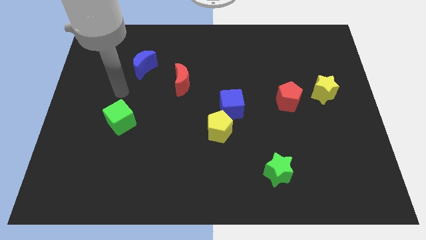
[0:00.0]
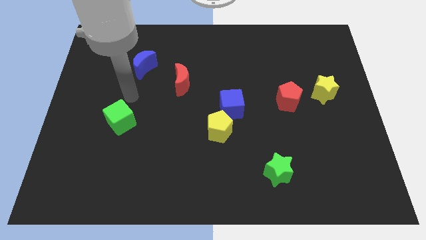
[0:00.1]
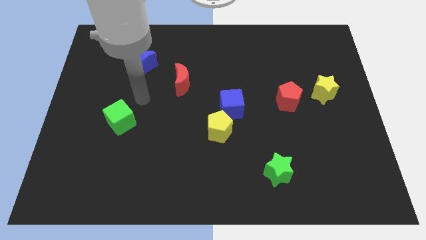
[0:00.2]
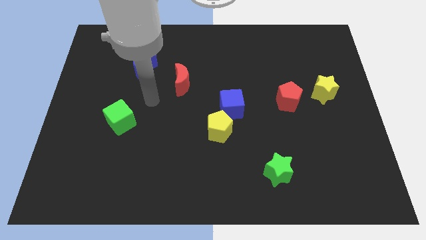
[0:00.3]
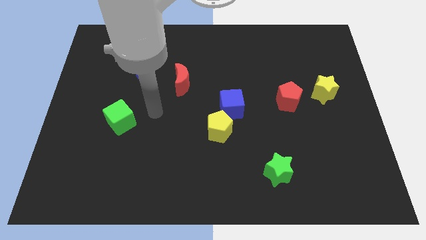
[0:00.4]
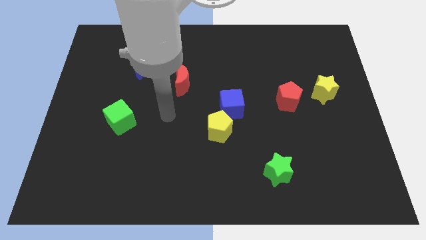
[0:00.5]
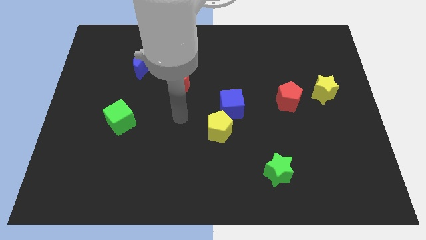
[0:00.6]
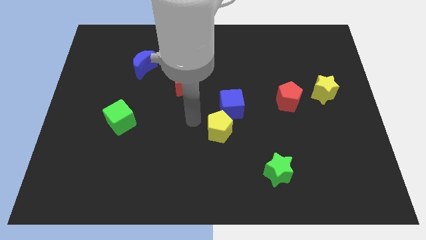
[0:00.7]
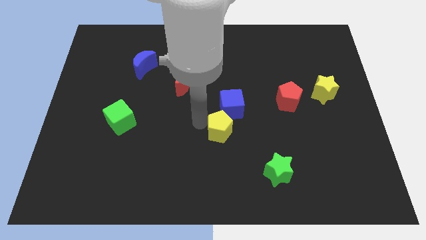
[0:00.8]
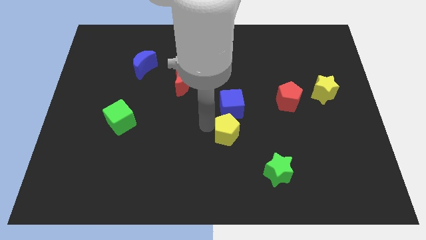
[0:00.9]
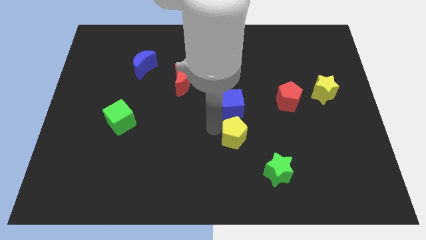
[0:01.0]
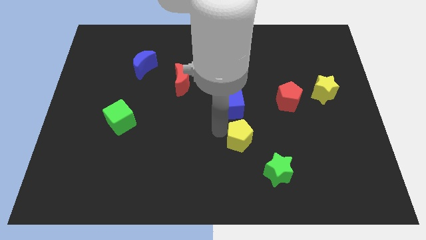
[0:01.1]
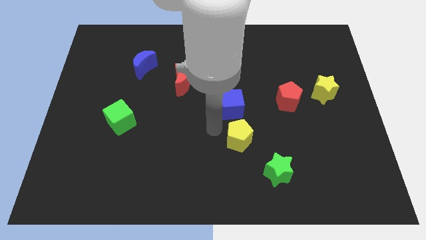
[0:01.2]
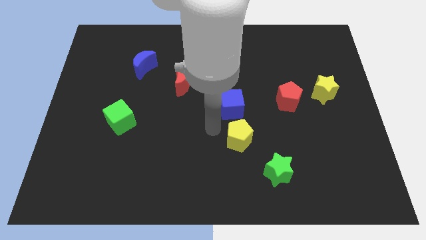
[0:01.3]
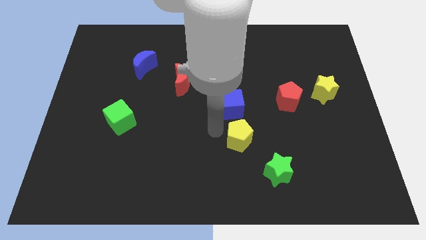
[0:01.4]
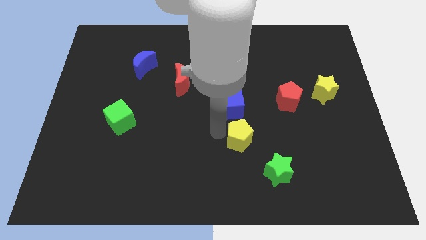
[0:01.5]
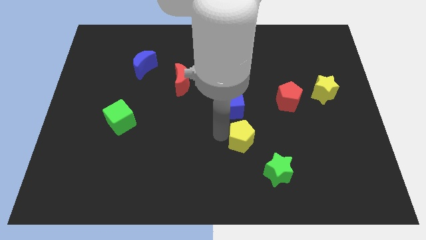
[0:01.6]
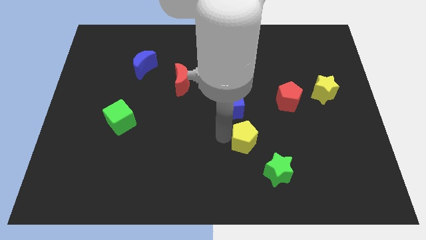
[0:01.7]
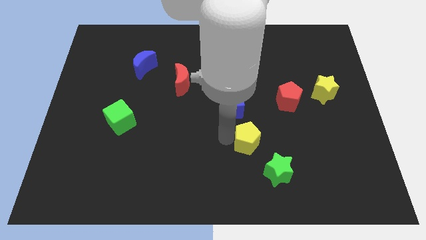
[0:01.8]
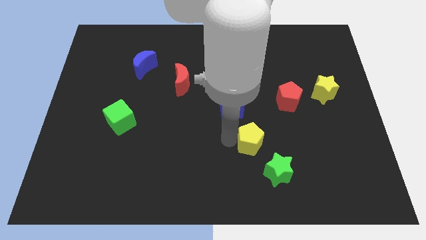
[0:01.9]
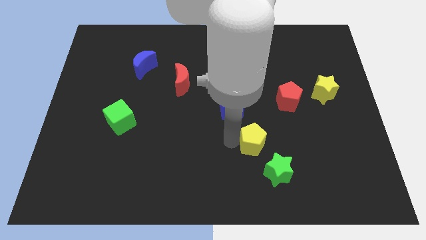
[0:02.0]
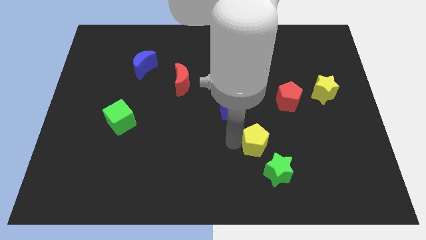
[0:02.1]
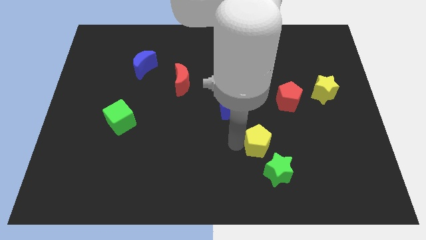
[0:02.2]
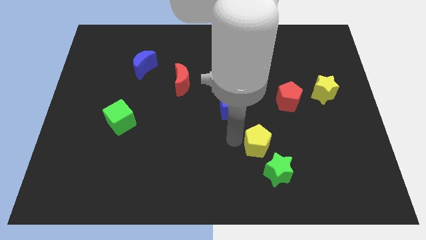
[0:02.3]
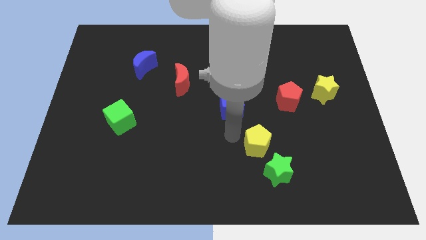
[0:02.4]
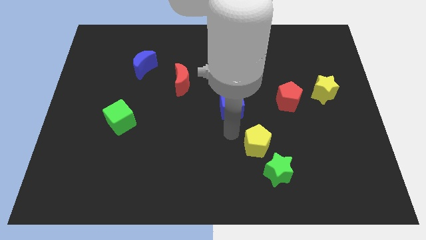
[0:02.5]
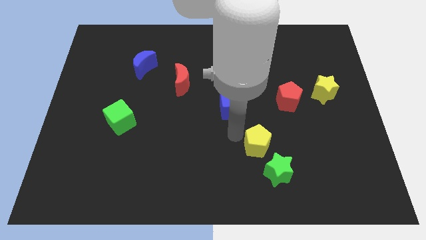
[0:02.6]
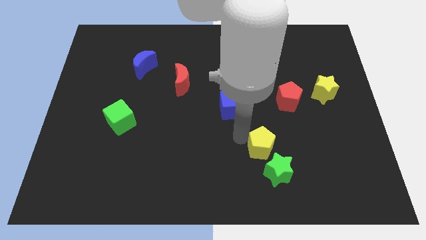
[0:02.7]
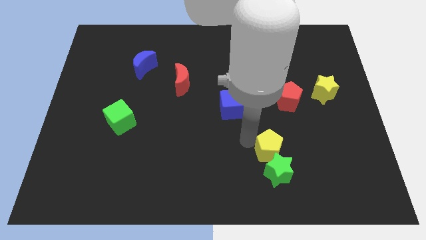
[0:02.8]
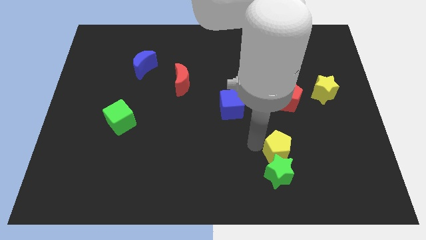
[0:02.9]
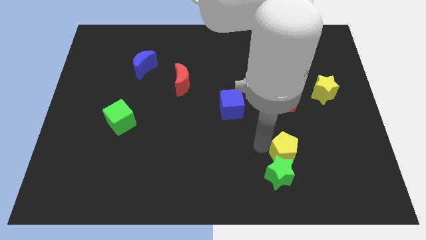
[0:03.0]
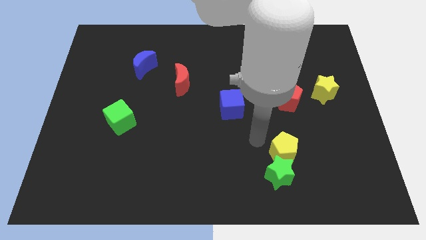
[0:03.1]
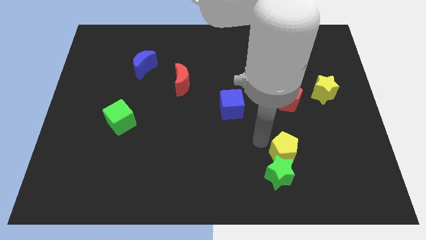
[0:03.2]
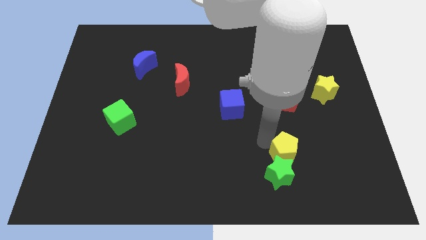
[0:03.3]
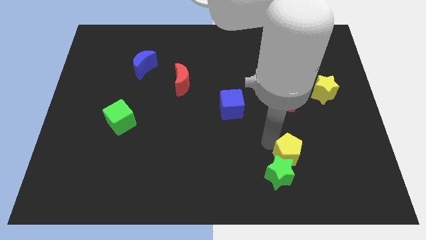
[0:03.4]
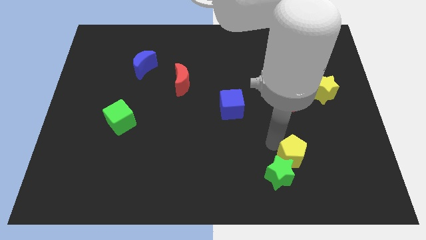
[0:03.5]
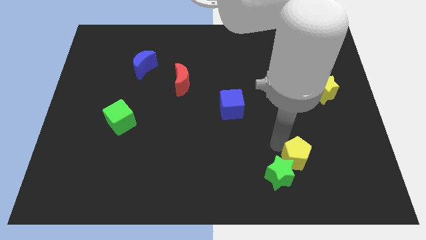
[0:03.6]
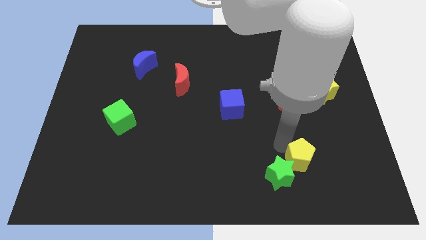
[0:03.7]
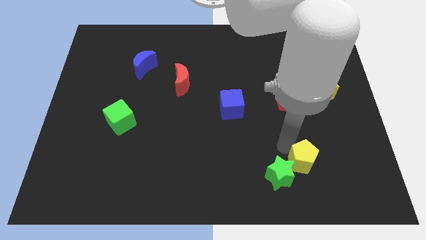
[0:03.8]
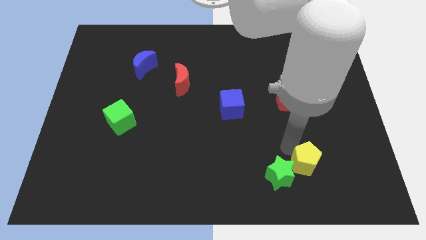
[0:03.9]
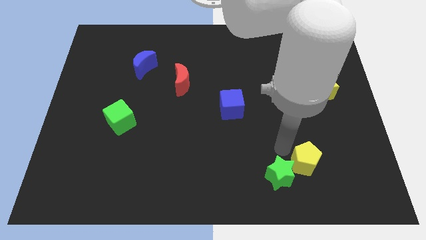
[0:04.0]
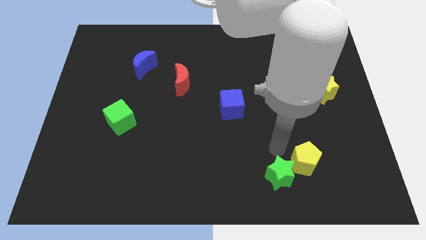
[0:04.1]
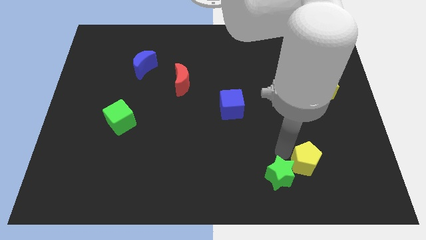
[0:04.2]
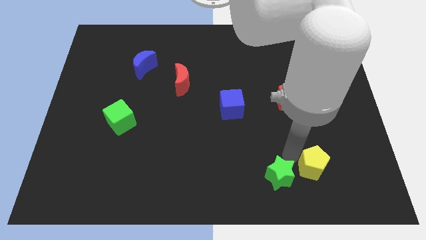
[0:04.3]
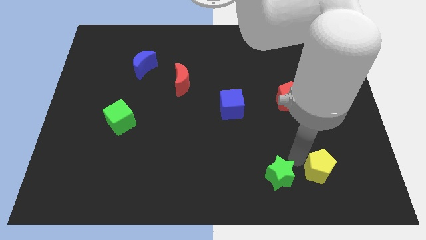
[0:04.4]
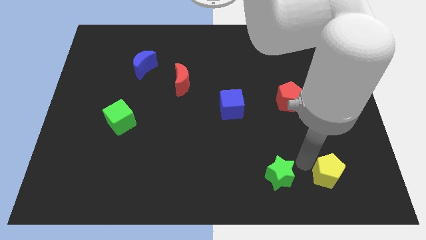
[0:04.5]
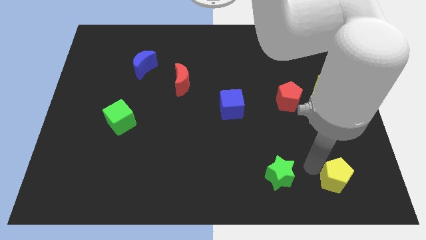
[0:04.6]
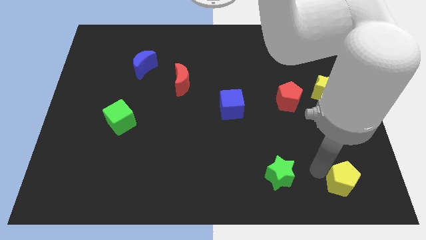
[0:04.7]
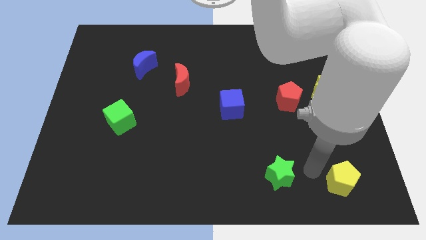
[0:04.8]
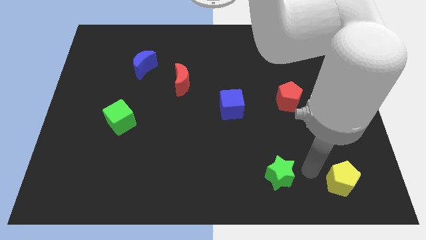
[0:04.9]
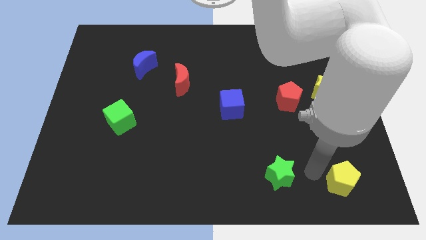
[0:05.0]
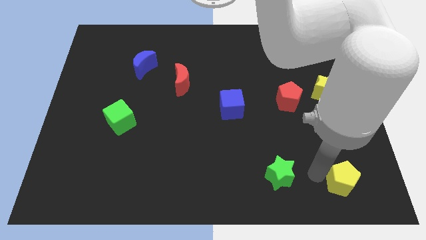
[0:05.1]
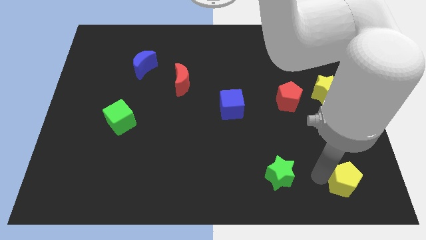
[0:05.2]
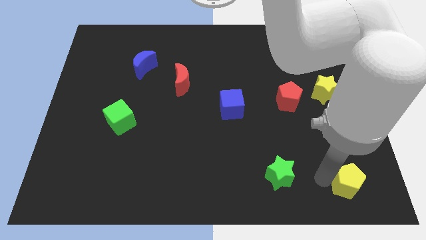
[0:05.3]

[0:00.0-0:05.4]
move the yellow pentagon to the bottom right corner

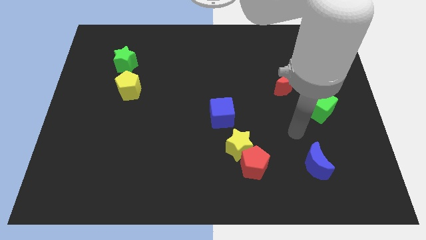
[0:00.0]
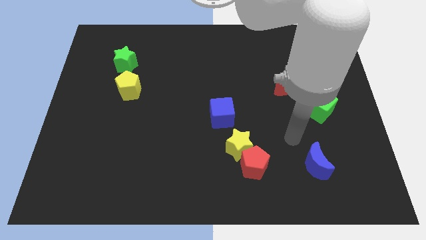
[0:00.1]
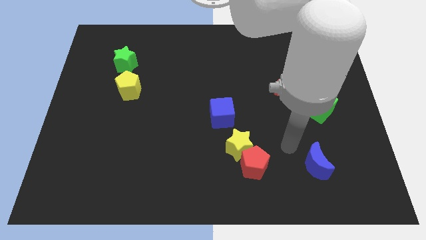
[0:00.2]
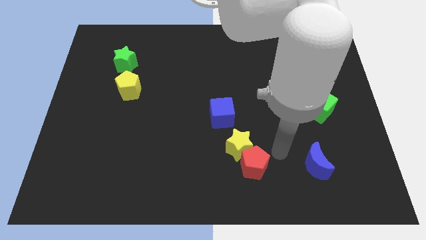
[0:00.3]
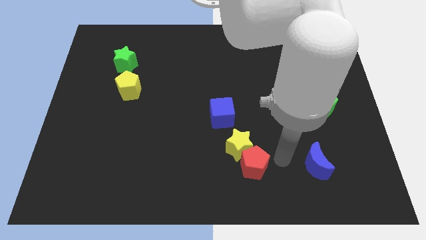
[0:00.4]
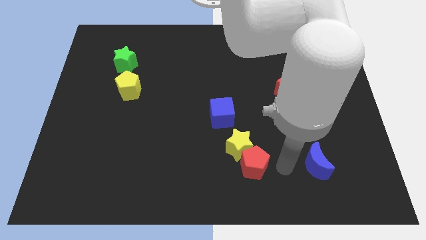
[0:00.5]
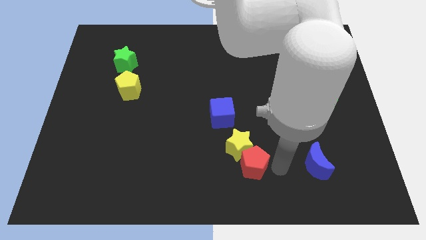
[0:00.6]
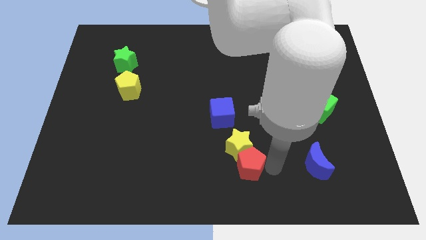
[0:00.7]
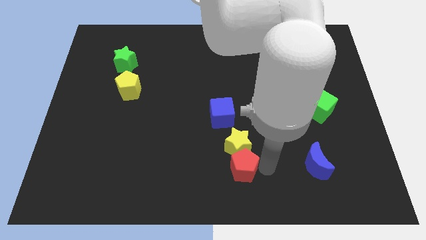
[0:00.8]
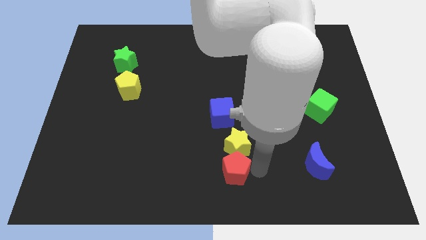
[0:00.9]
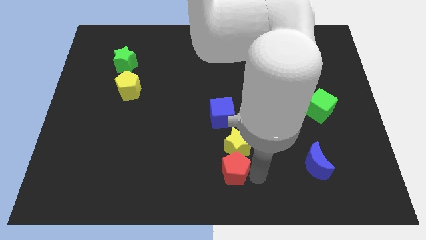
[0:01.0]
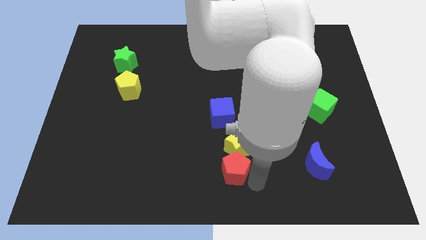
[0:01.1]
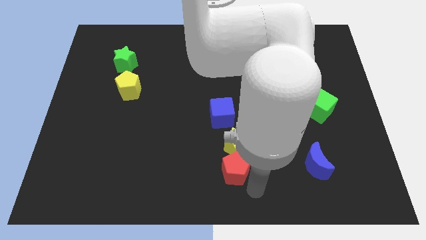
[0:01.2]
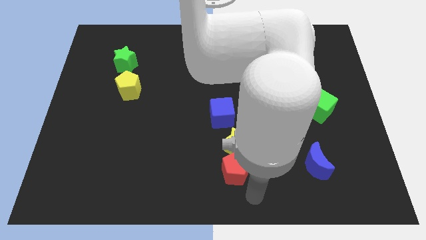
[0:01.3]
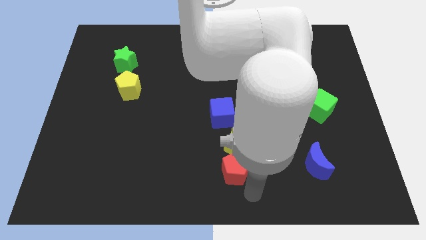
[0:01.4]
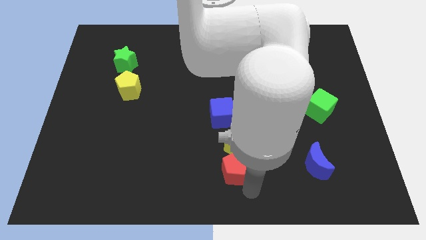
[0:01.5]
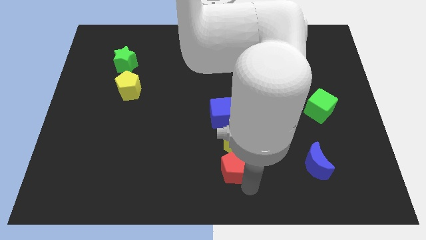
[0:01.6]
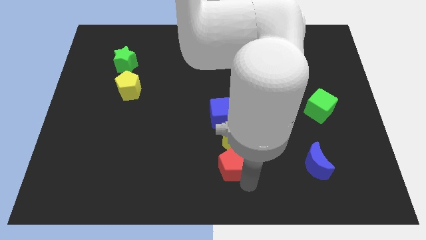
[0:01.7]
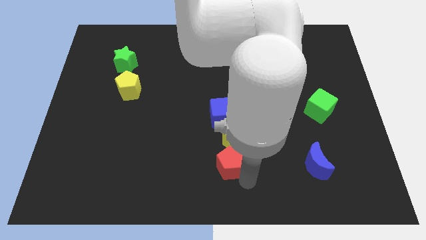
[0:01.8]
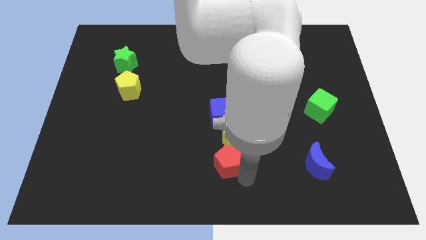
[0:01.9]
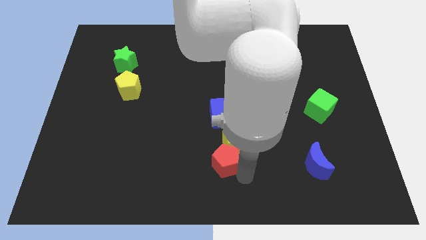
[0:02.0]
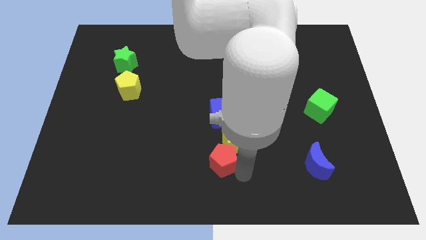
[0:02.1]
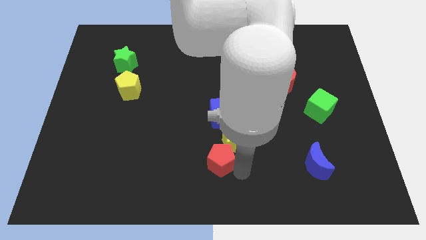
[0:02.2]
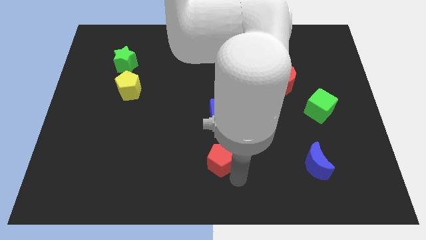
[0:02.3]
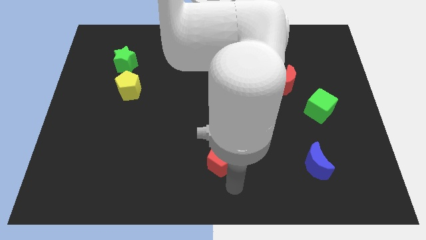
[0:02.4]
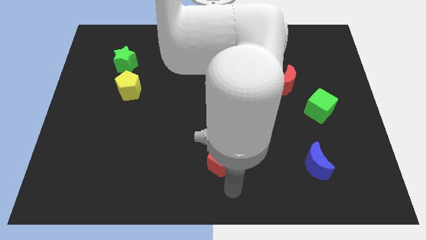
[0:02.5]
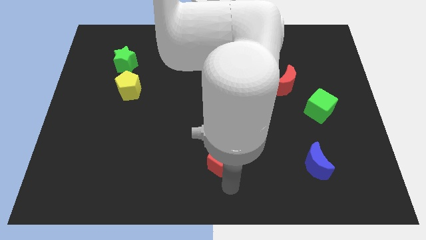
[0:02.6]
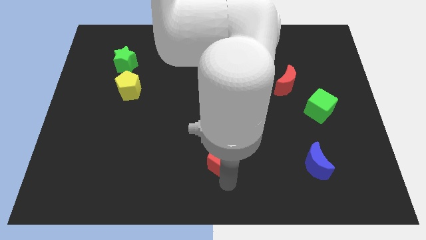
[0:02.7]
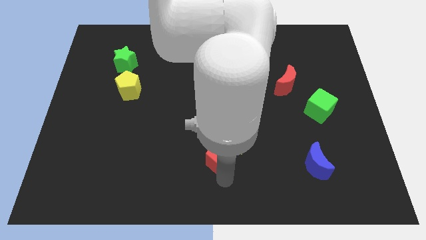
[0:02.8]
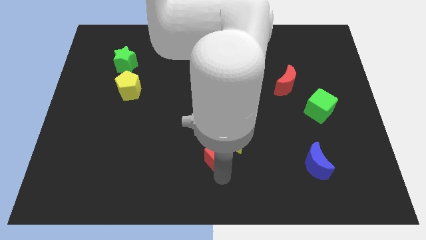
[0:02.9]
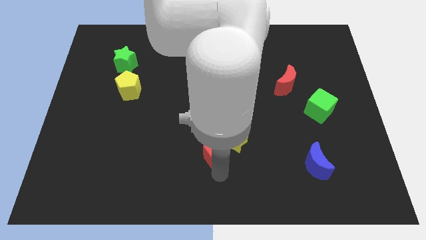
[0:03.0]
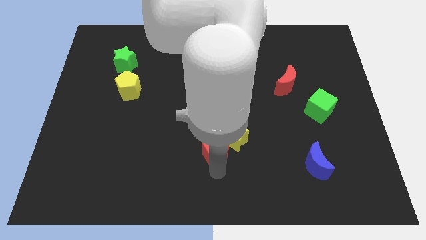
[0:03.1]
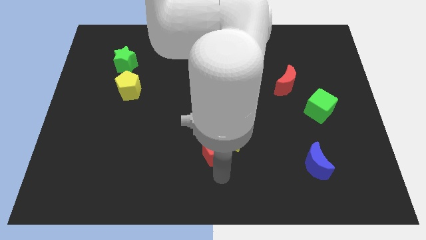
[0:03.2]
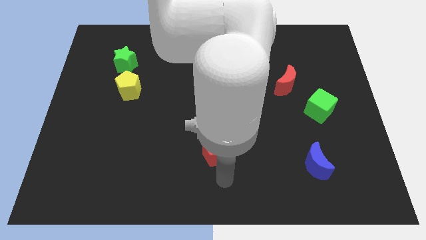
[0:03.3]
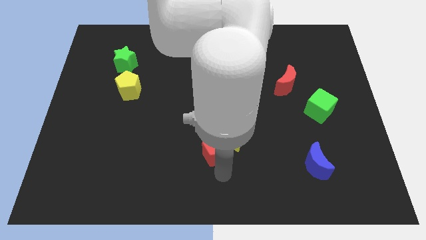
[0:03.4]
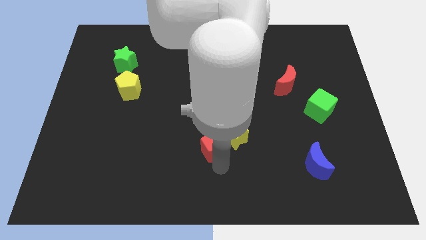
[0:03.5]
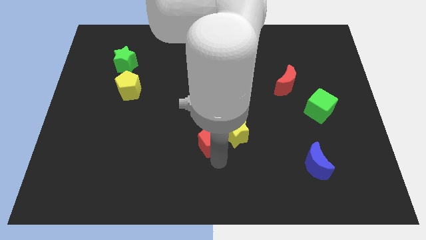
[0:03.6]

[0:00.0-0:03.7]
put the red pentagon to the center of the board
